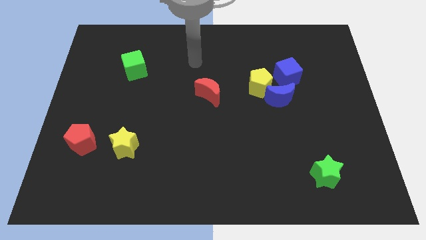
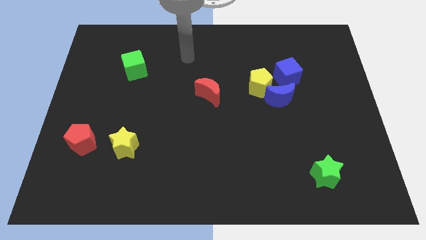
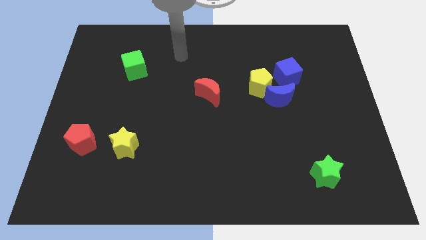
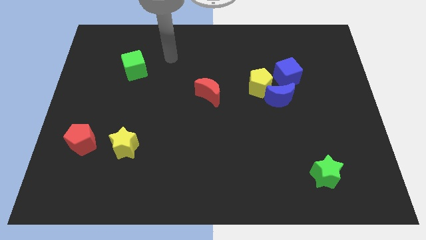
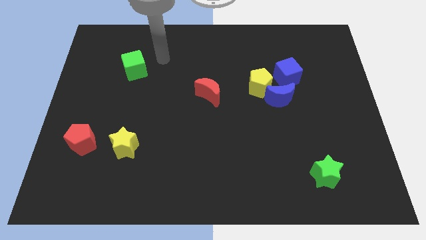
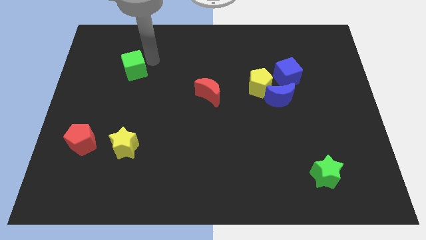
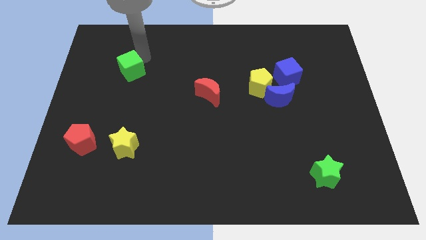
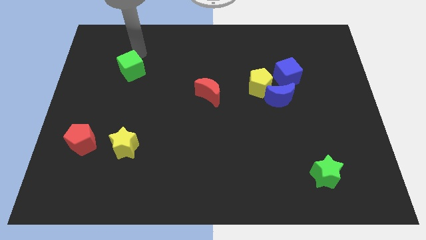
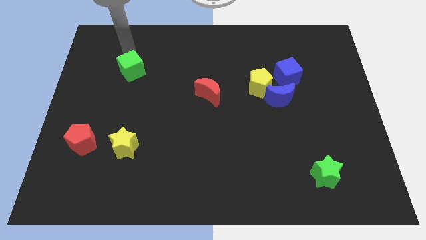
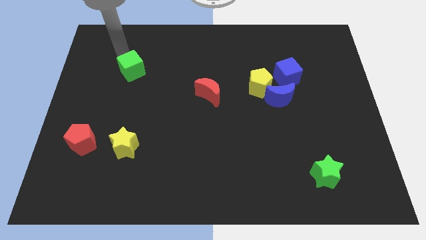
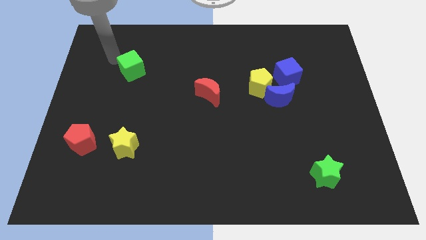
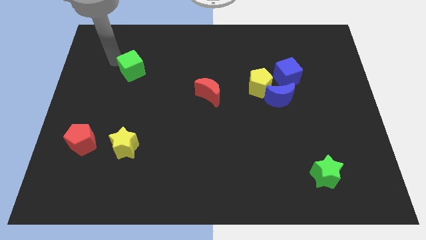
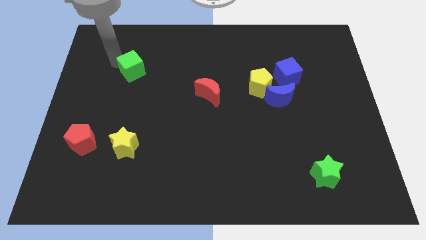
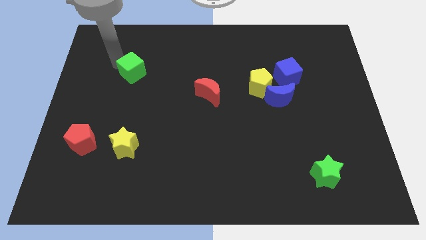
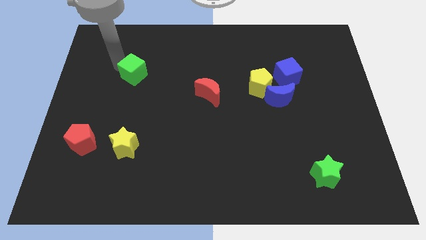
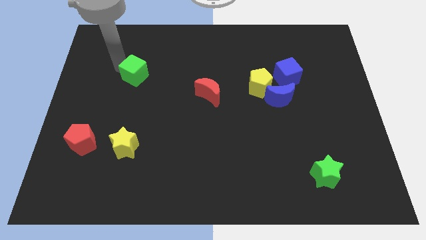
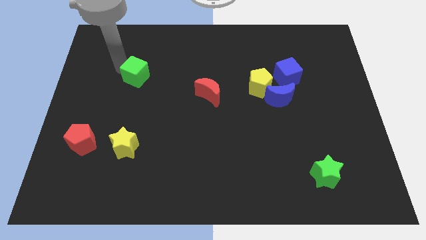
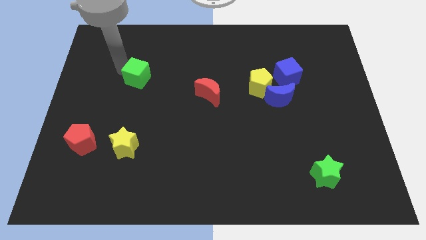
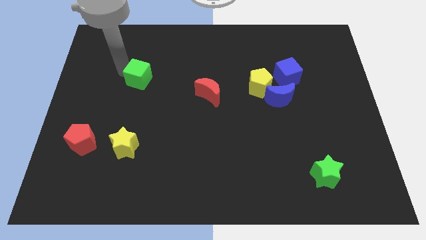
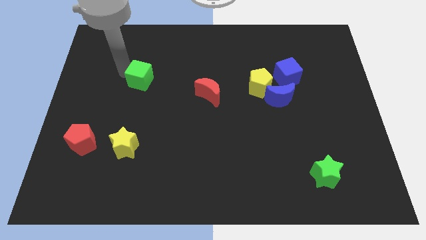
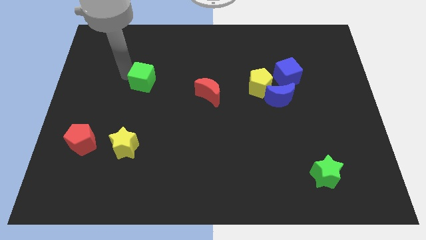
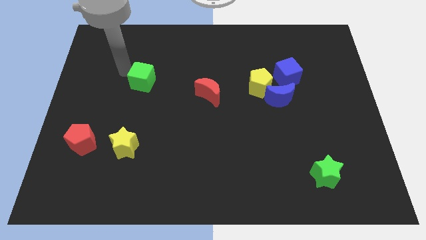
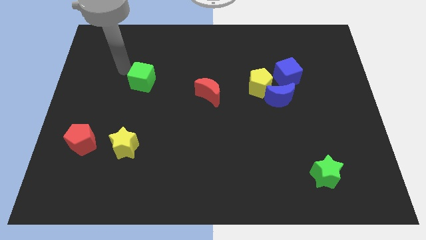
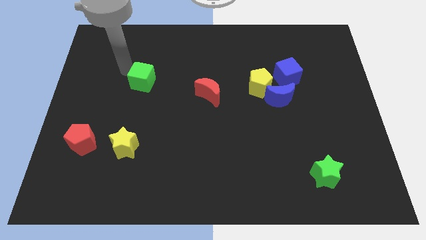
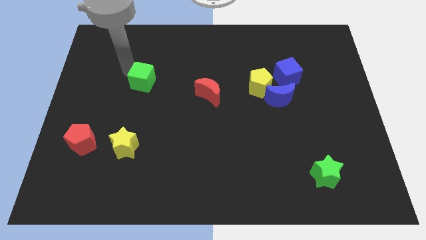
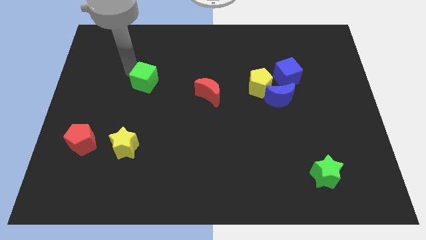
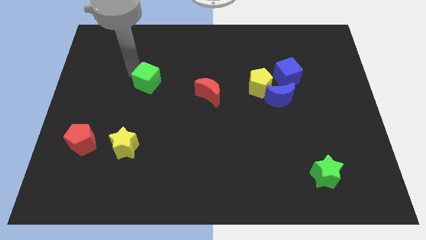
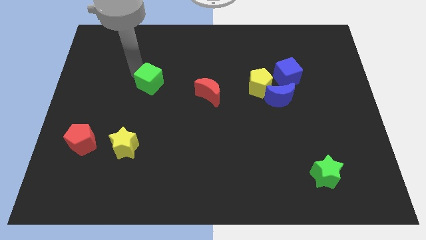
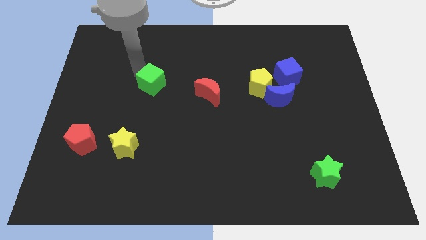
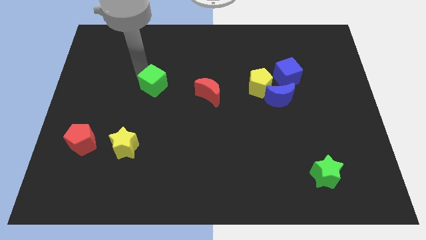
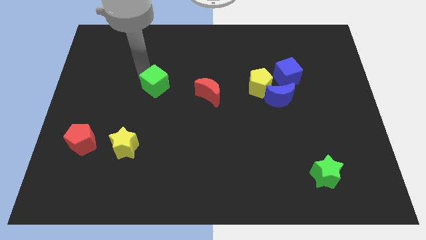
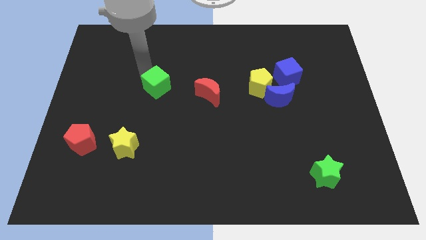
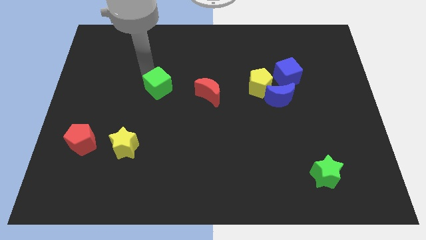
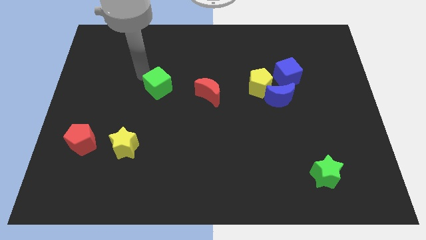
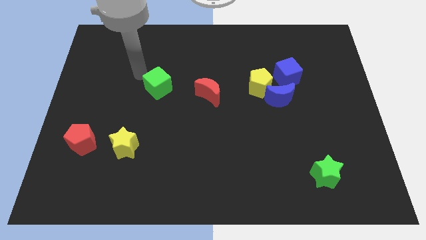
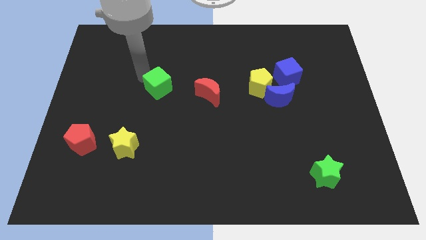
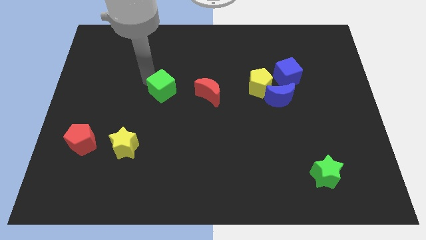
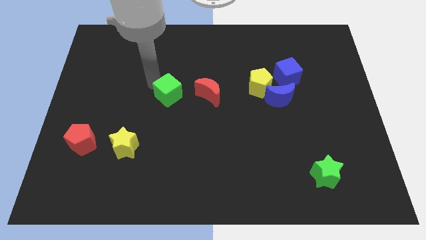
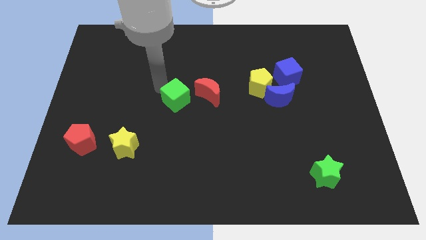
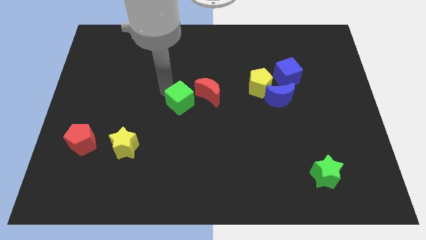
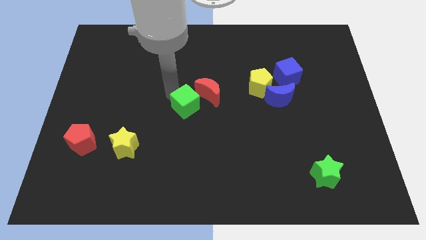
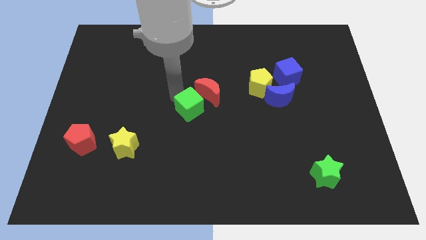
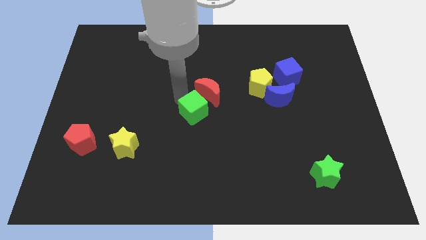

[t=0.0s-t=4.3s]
push the green cube down and right diagonally

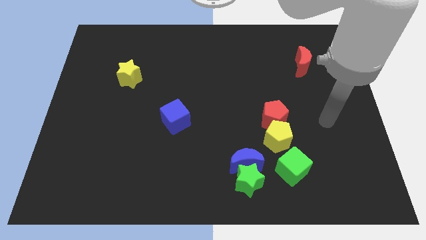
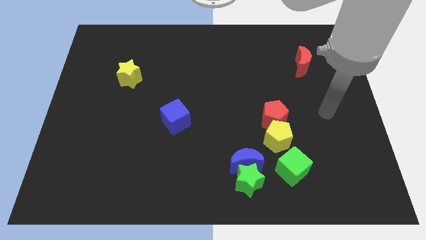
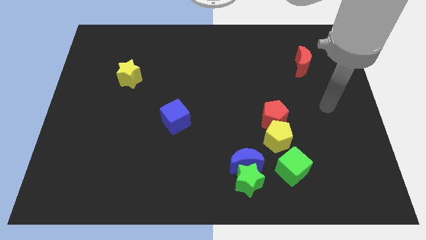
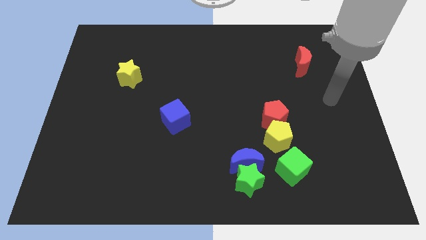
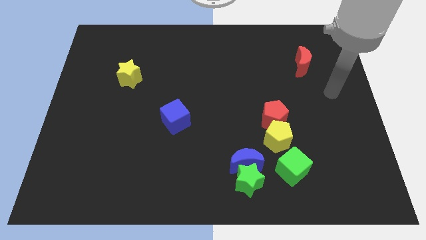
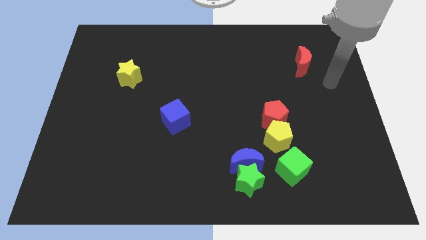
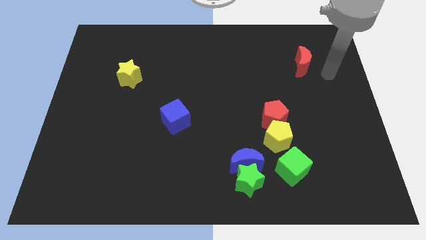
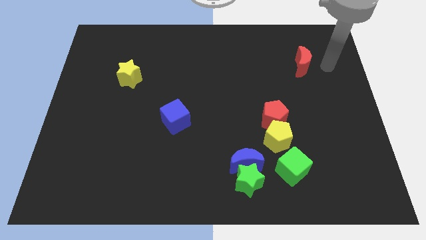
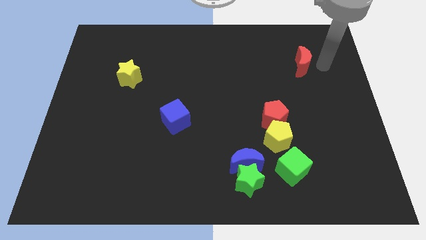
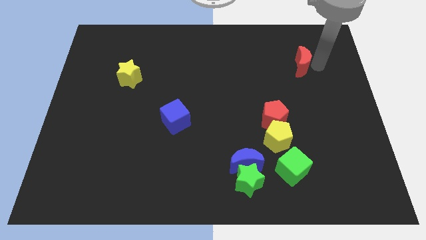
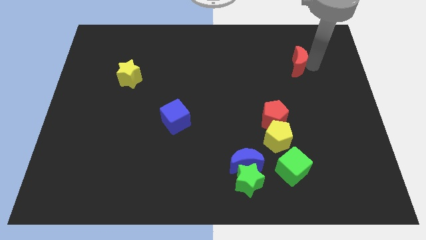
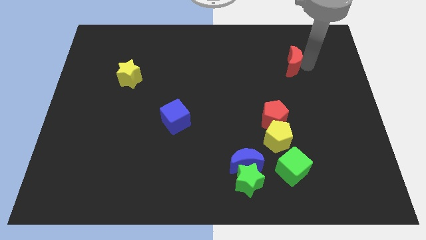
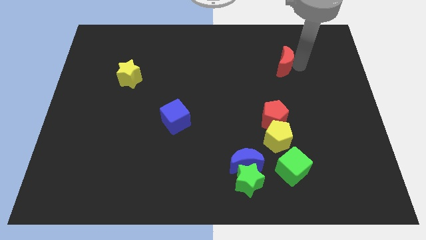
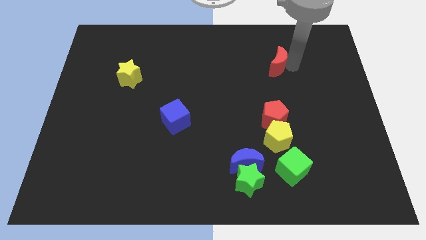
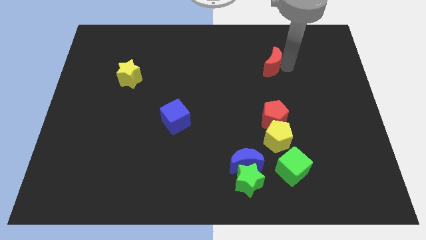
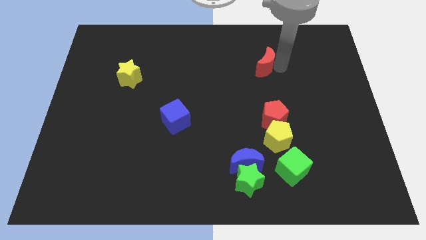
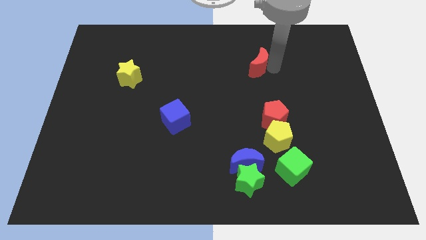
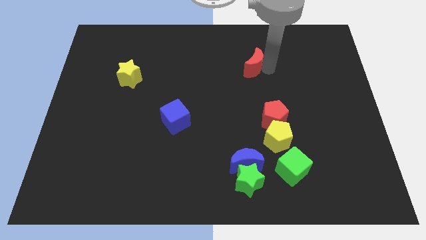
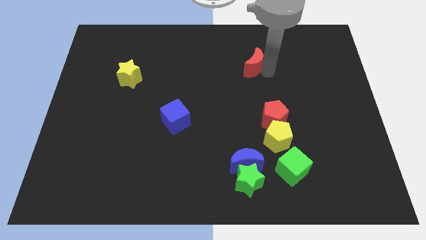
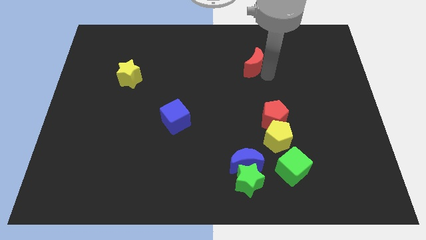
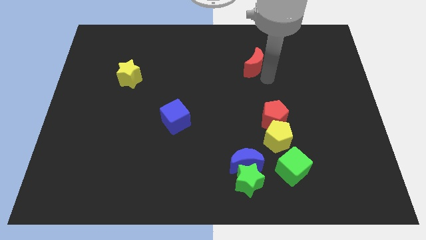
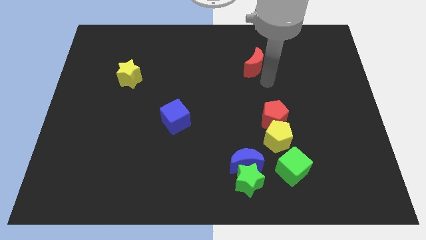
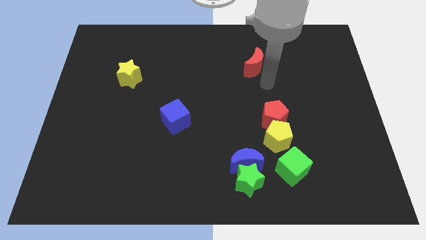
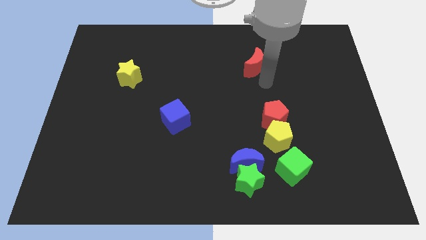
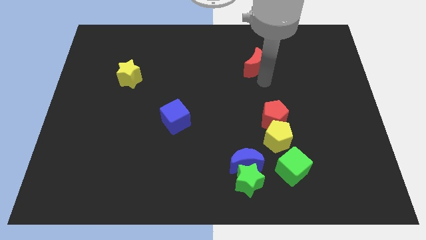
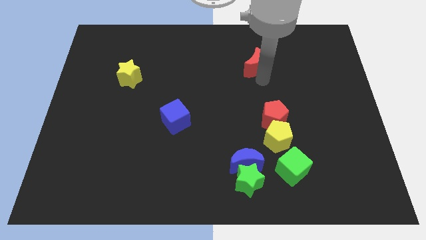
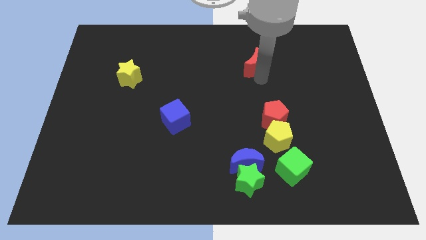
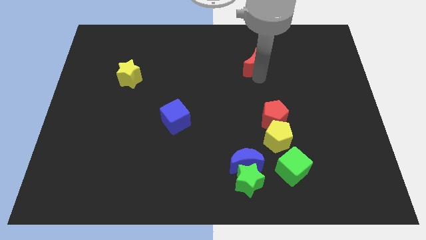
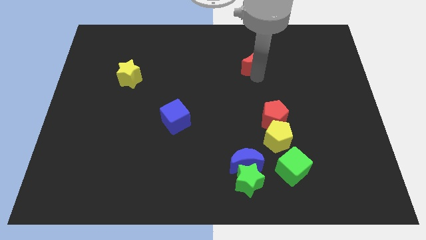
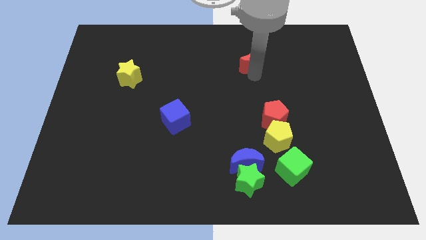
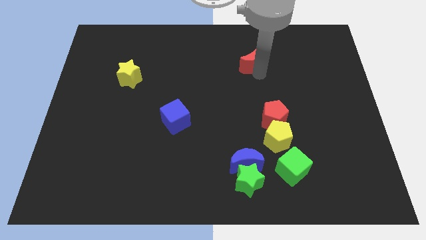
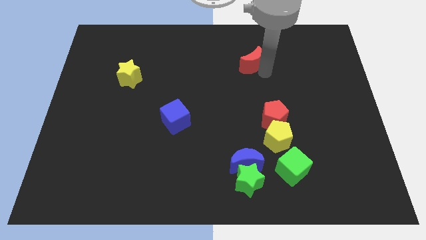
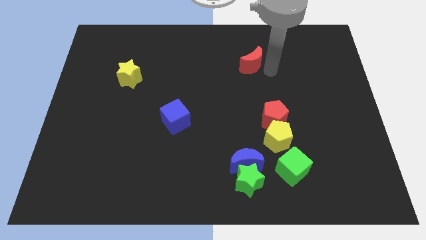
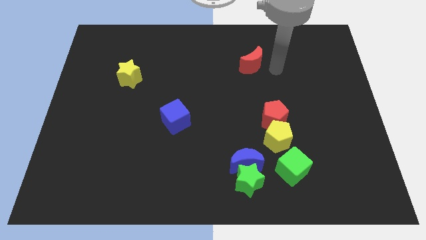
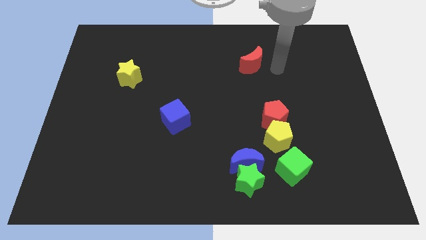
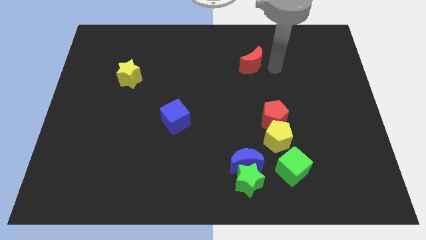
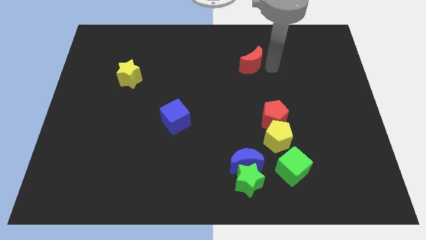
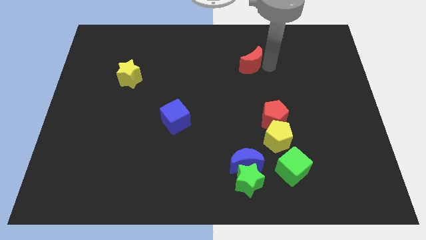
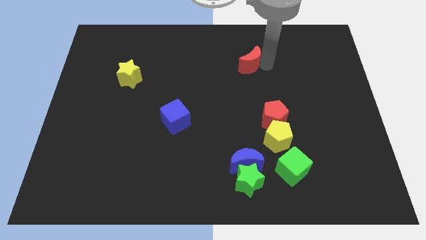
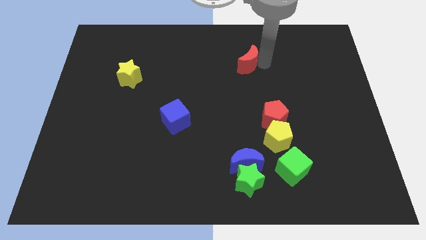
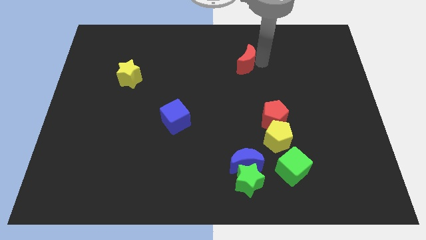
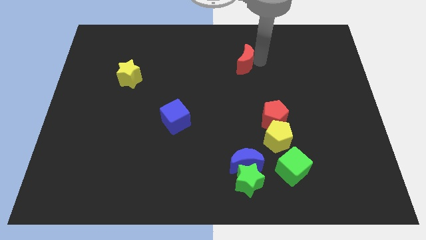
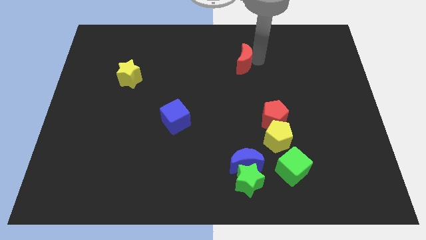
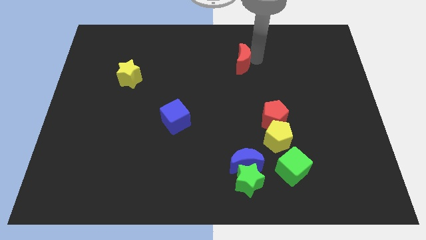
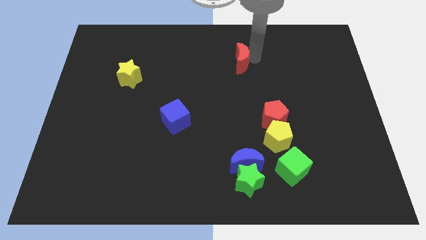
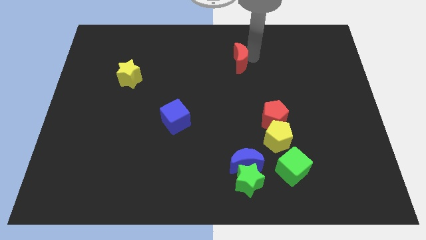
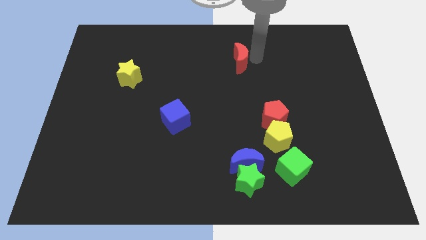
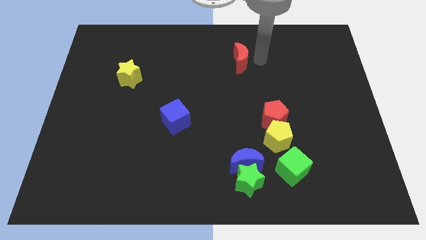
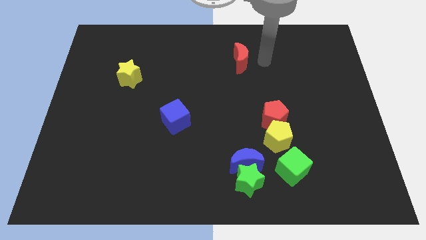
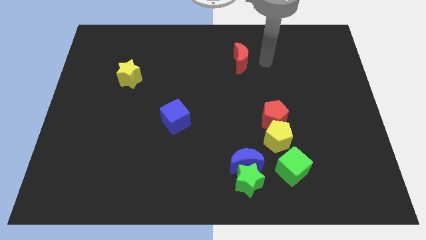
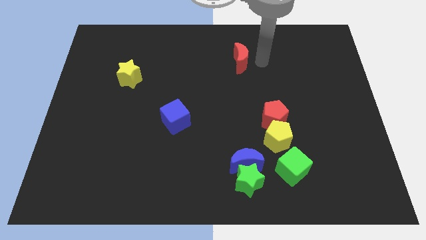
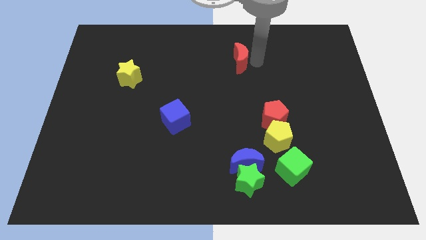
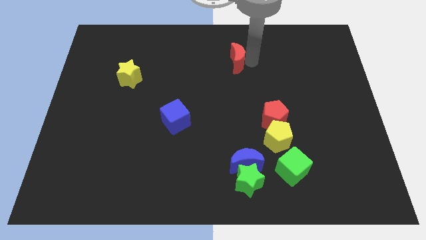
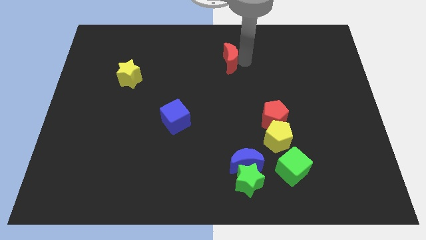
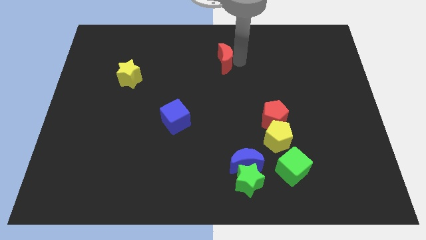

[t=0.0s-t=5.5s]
push the red moon to the left
